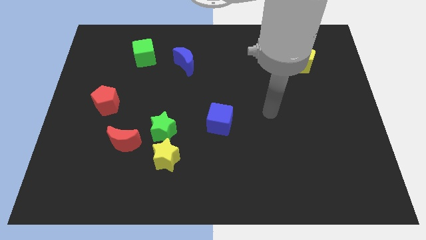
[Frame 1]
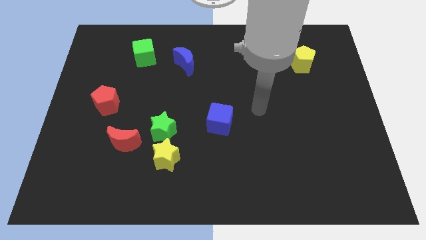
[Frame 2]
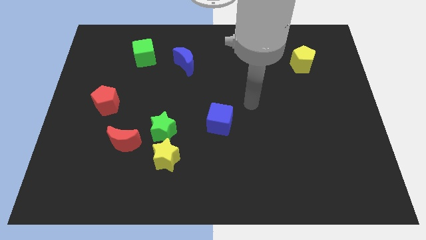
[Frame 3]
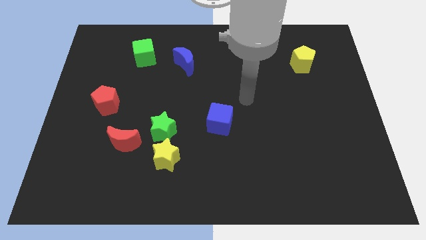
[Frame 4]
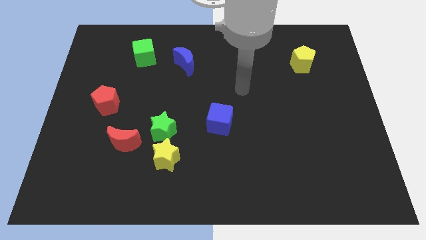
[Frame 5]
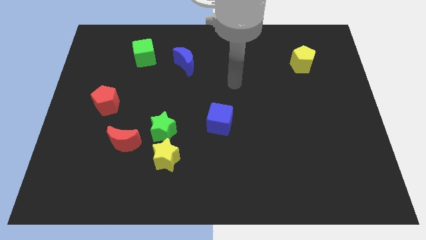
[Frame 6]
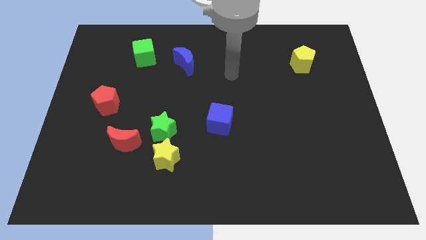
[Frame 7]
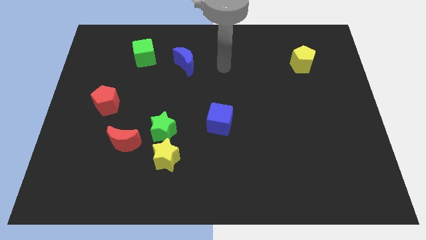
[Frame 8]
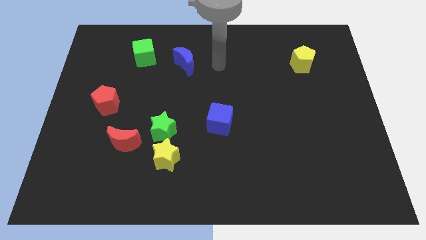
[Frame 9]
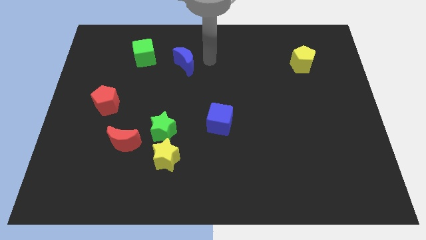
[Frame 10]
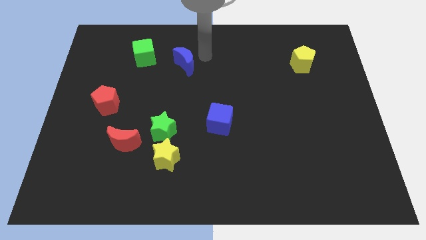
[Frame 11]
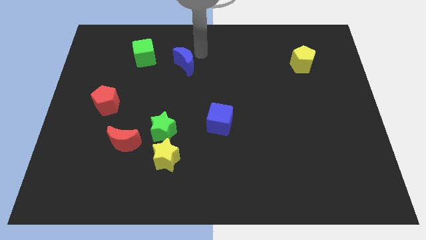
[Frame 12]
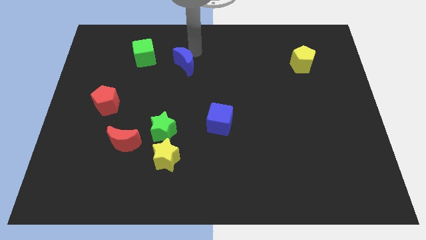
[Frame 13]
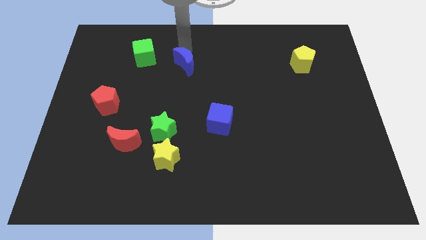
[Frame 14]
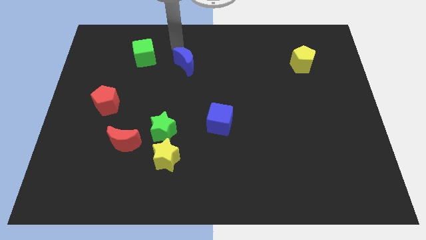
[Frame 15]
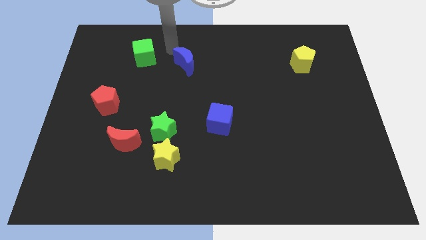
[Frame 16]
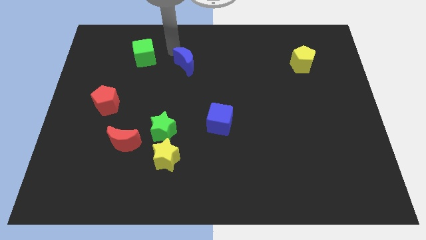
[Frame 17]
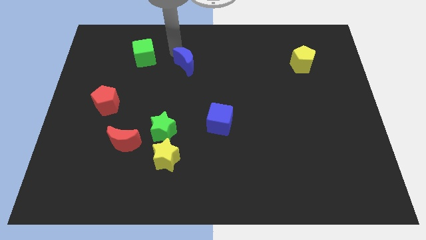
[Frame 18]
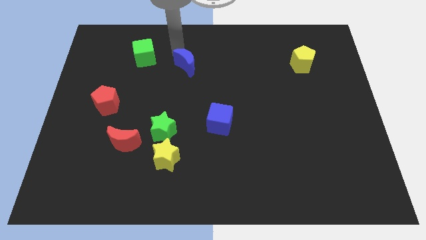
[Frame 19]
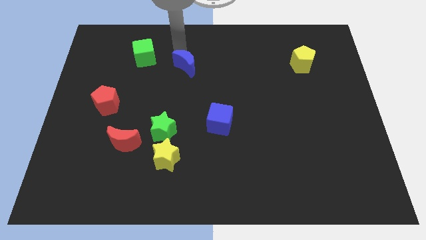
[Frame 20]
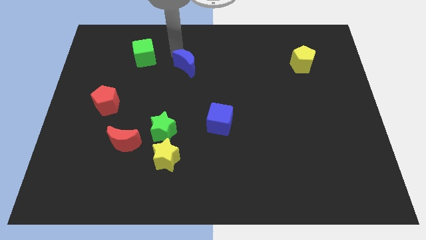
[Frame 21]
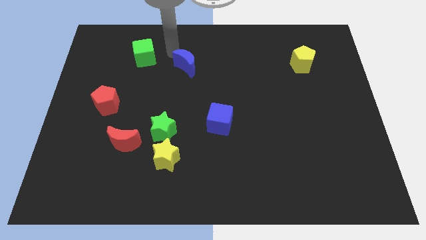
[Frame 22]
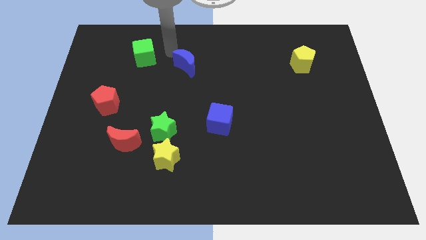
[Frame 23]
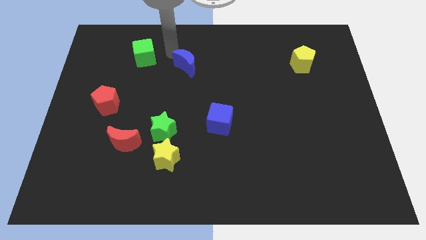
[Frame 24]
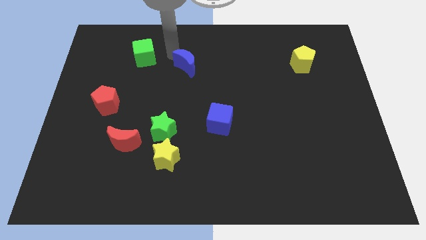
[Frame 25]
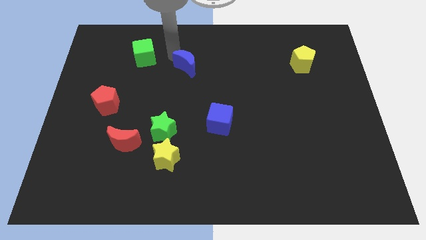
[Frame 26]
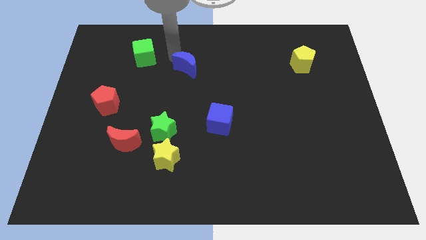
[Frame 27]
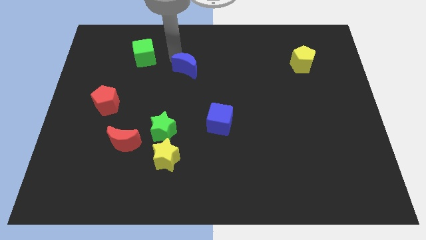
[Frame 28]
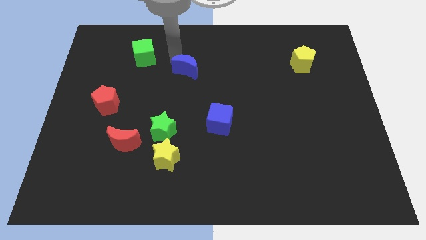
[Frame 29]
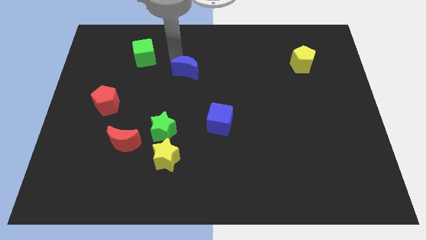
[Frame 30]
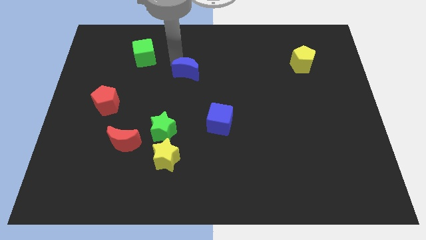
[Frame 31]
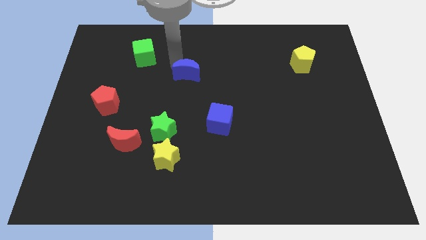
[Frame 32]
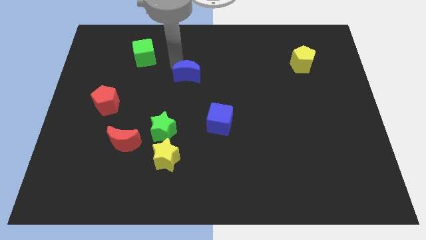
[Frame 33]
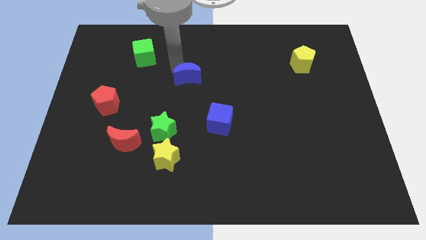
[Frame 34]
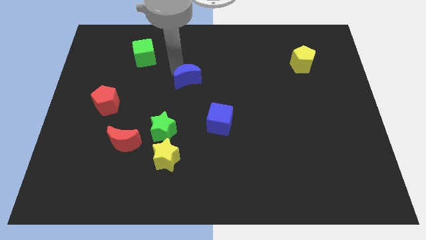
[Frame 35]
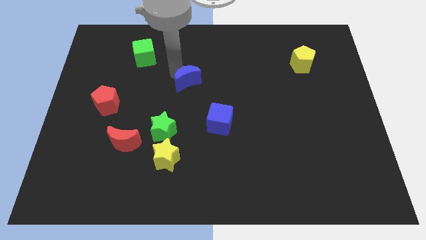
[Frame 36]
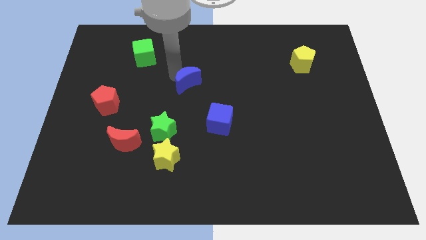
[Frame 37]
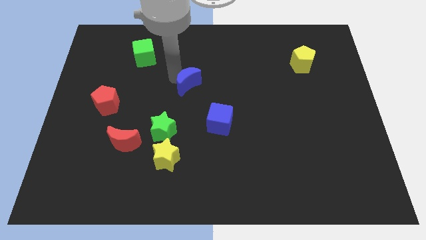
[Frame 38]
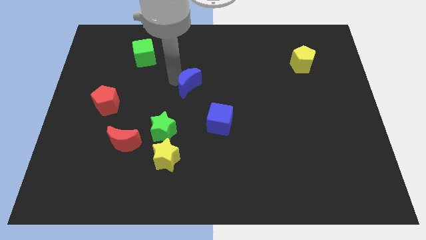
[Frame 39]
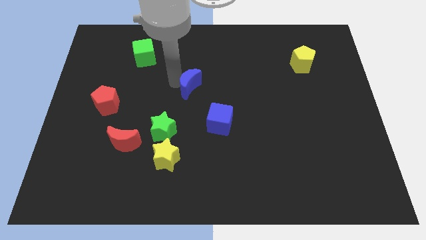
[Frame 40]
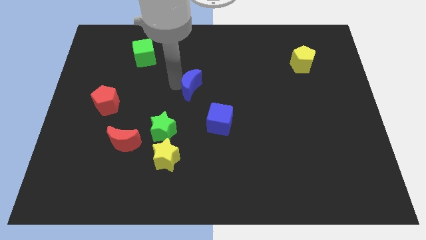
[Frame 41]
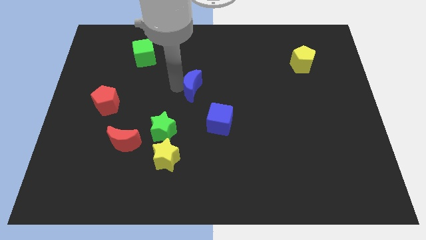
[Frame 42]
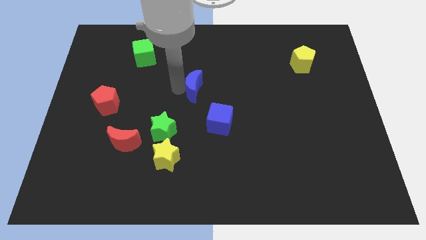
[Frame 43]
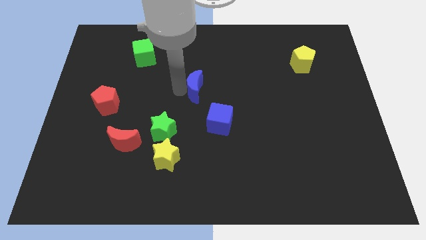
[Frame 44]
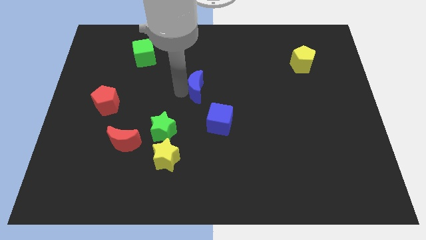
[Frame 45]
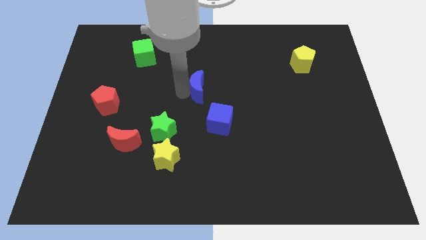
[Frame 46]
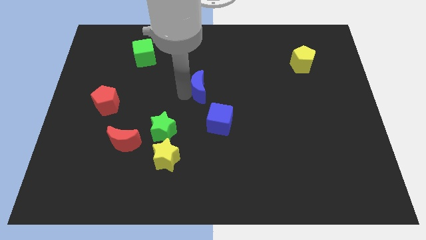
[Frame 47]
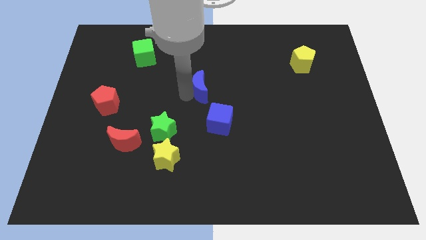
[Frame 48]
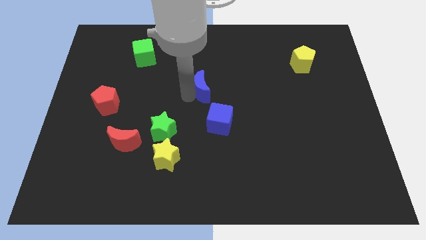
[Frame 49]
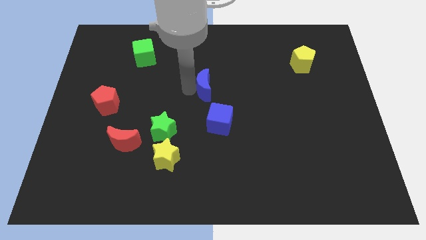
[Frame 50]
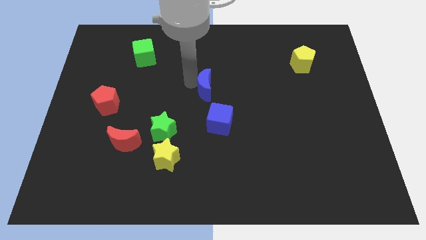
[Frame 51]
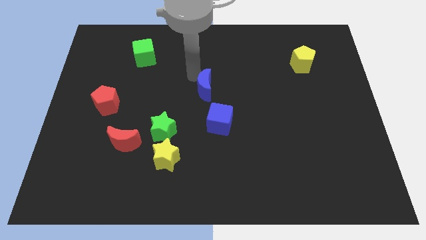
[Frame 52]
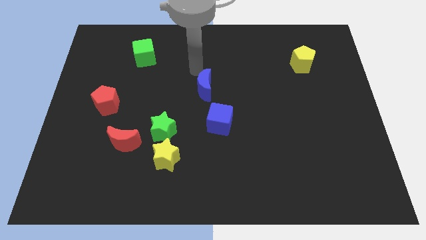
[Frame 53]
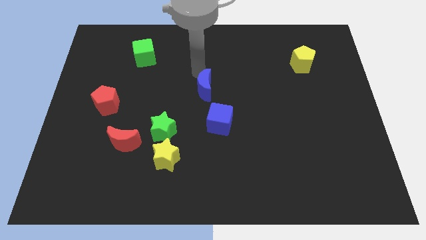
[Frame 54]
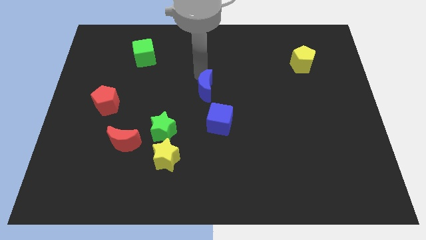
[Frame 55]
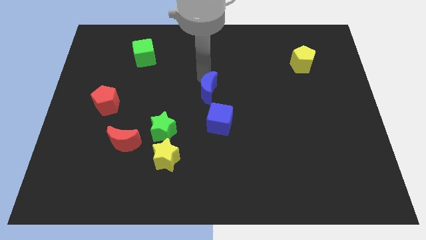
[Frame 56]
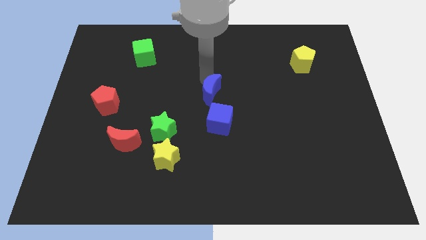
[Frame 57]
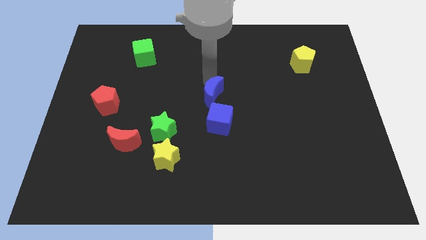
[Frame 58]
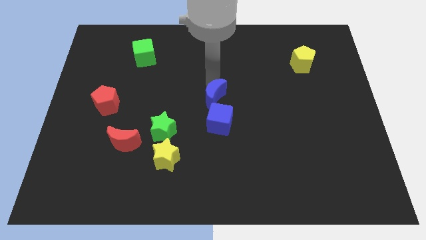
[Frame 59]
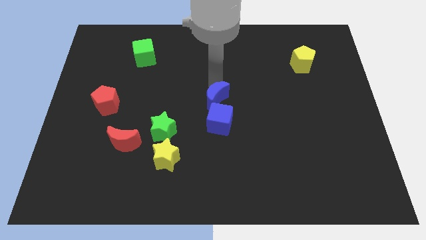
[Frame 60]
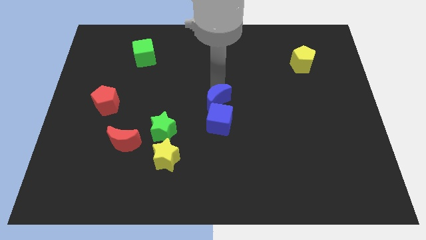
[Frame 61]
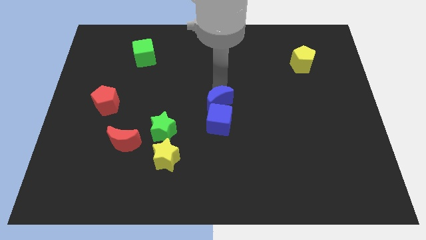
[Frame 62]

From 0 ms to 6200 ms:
slide the blue moon towards the blue cube

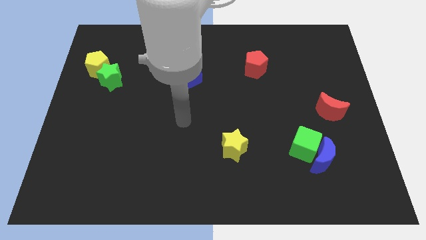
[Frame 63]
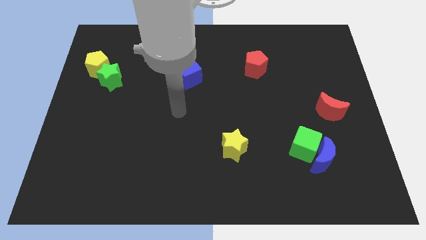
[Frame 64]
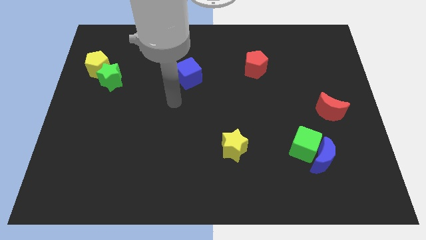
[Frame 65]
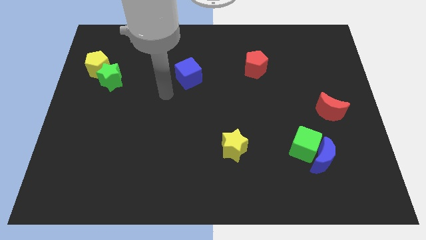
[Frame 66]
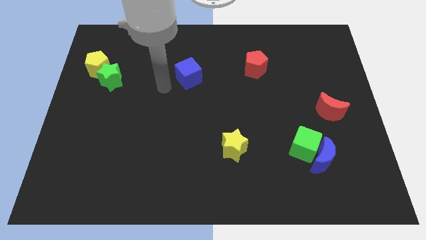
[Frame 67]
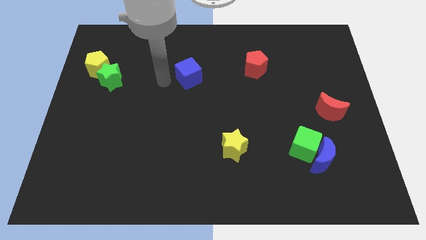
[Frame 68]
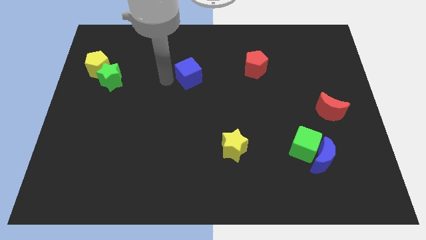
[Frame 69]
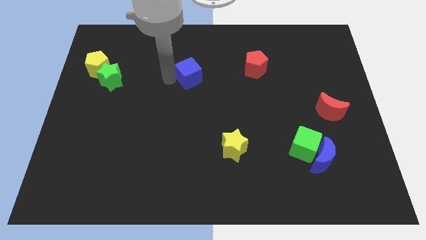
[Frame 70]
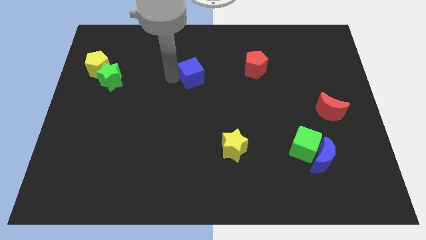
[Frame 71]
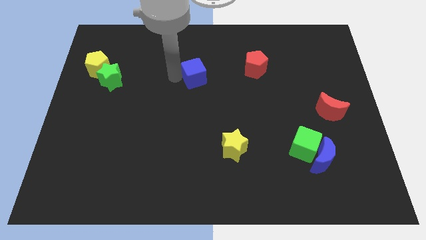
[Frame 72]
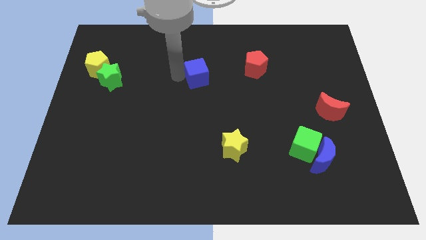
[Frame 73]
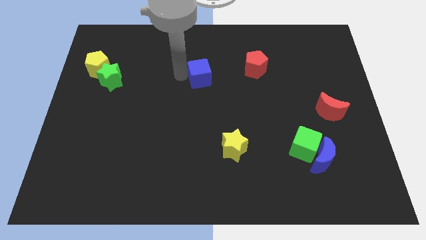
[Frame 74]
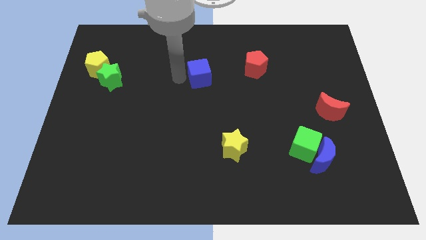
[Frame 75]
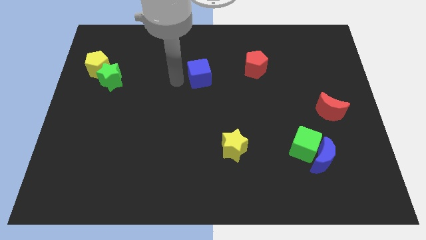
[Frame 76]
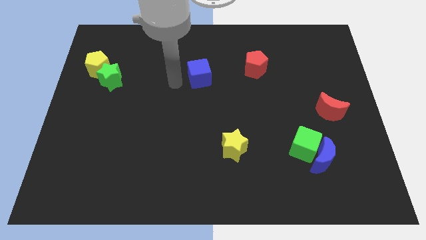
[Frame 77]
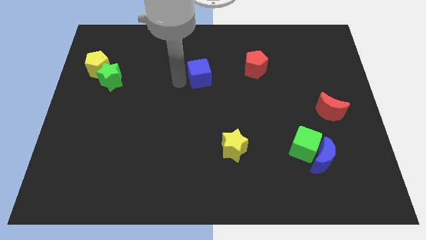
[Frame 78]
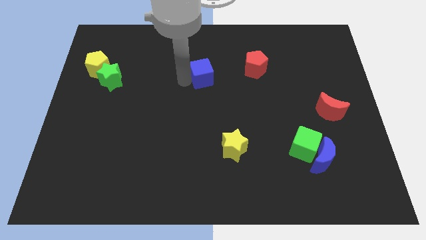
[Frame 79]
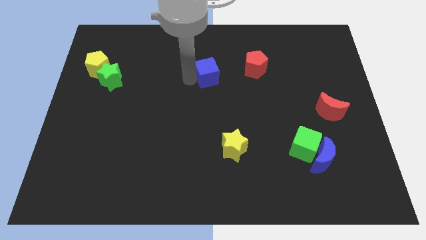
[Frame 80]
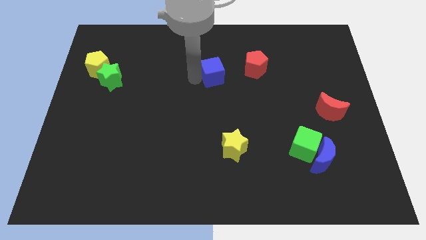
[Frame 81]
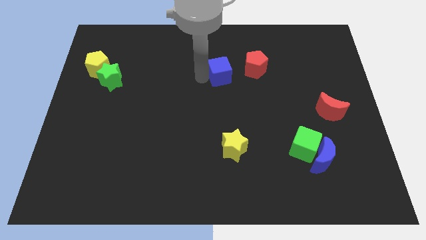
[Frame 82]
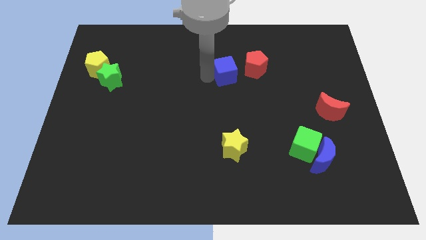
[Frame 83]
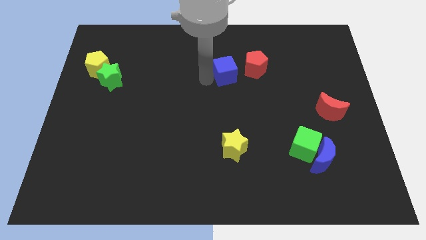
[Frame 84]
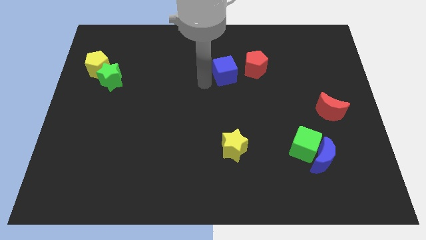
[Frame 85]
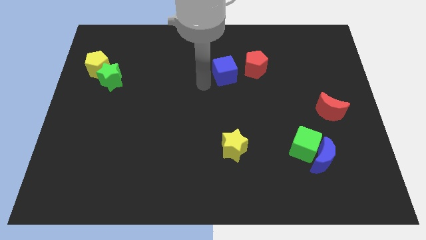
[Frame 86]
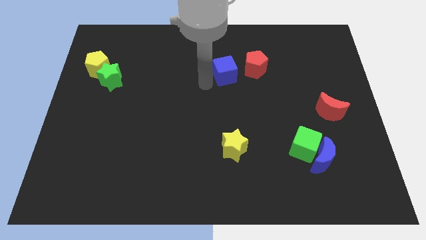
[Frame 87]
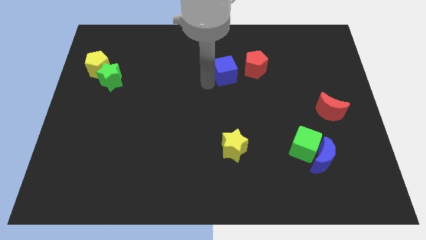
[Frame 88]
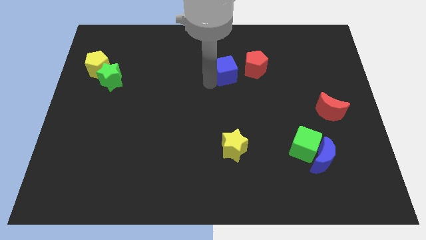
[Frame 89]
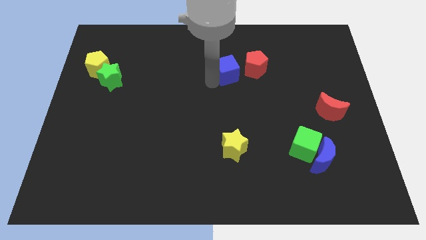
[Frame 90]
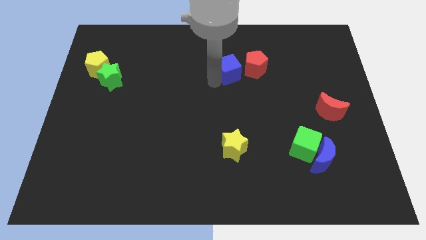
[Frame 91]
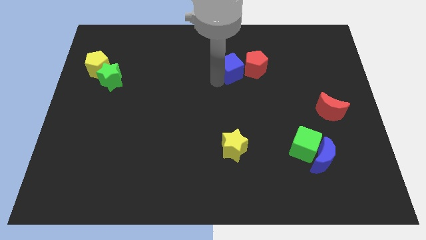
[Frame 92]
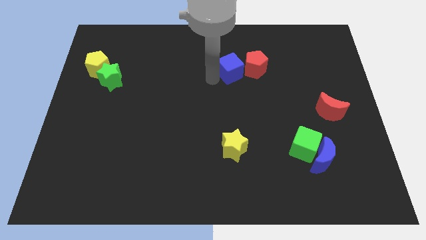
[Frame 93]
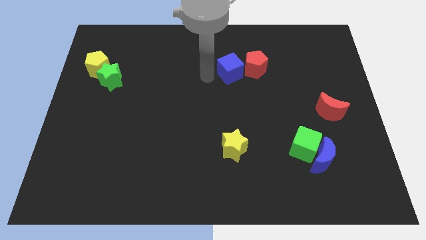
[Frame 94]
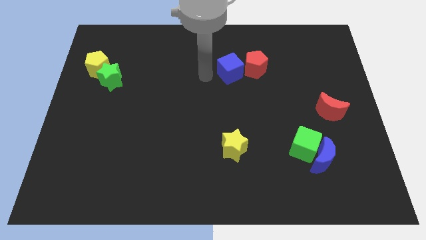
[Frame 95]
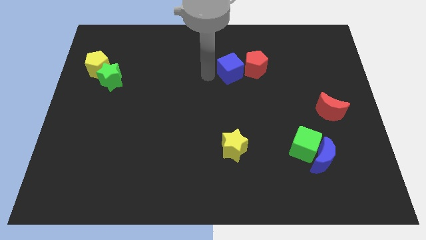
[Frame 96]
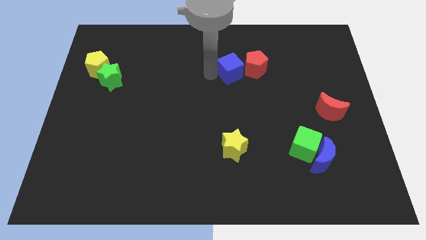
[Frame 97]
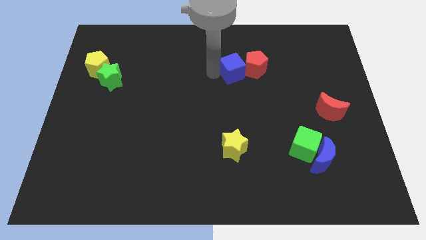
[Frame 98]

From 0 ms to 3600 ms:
put the blue cube close to the red pentagon
